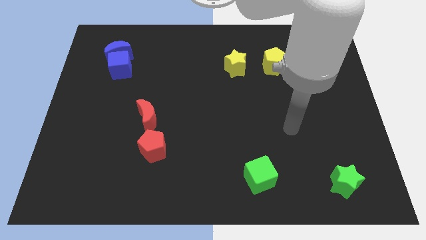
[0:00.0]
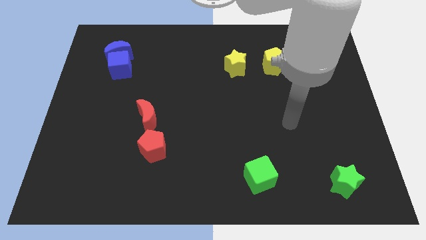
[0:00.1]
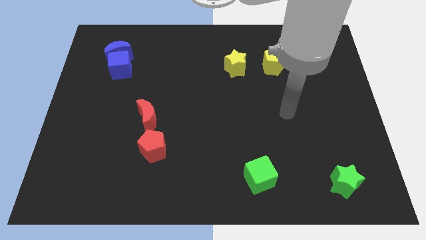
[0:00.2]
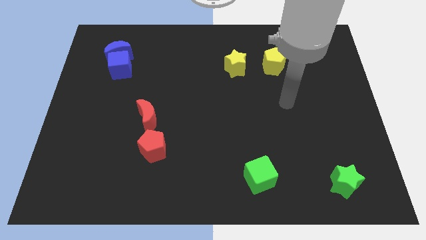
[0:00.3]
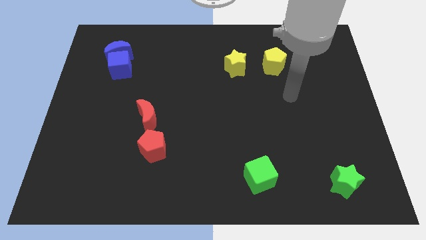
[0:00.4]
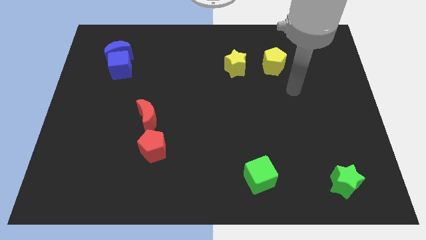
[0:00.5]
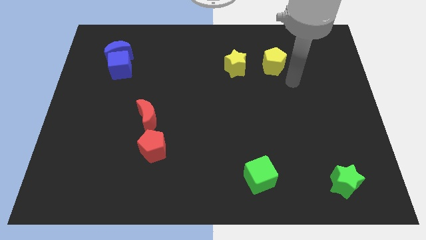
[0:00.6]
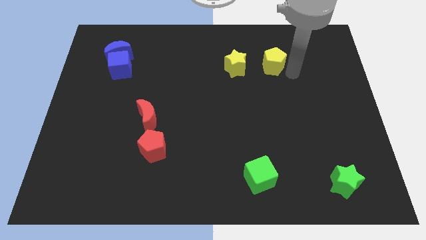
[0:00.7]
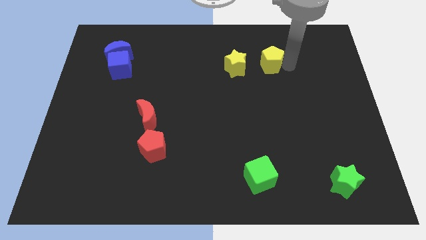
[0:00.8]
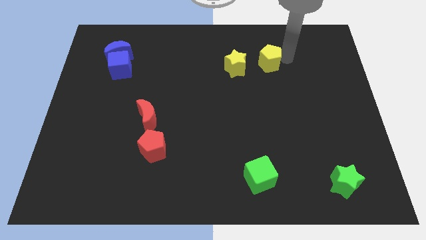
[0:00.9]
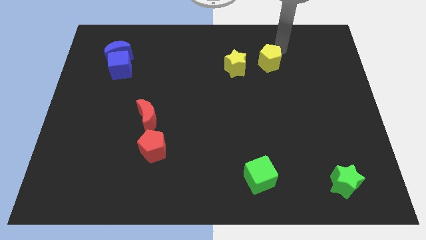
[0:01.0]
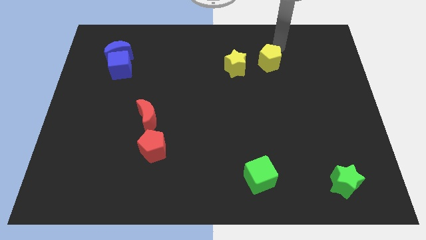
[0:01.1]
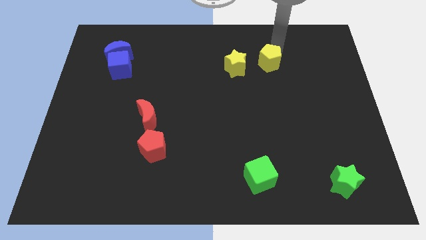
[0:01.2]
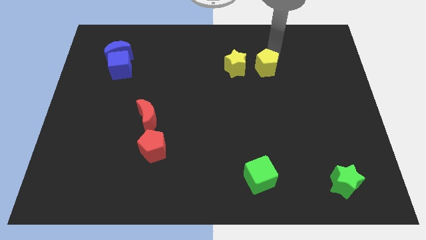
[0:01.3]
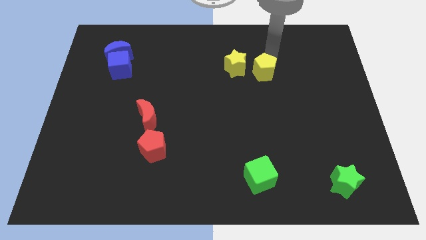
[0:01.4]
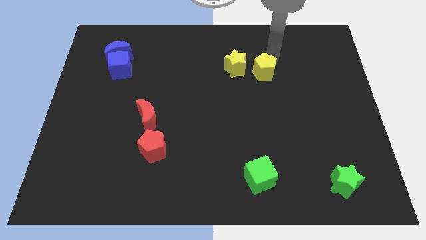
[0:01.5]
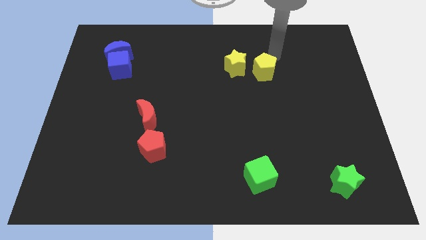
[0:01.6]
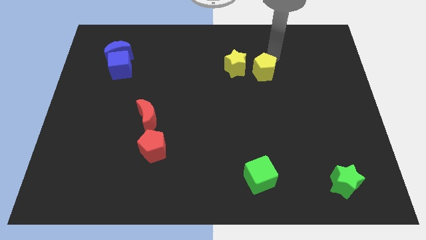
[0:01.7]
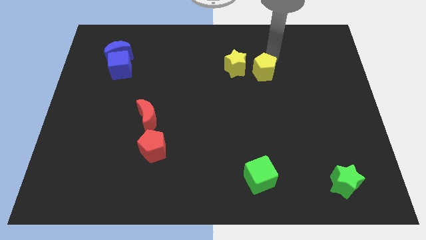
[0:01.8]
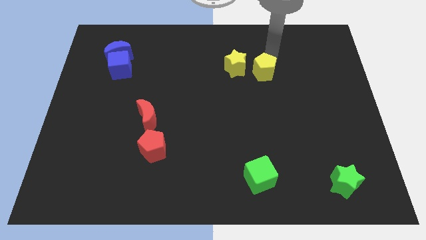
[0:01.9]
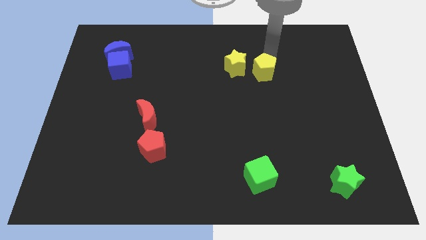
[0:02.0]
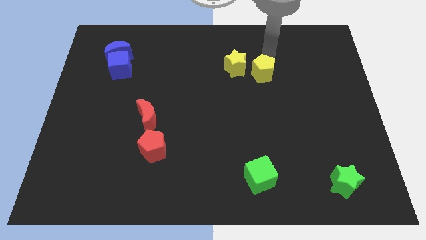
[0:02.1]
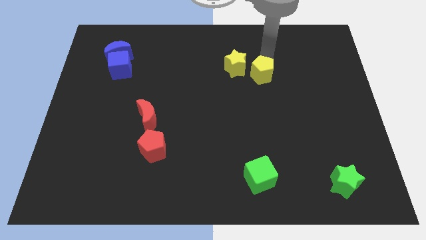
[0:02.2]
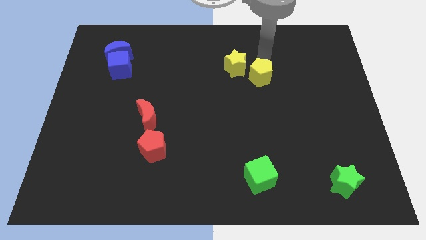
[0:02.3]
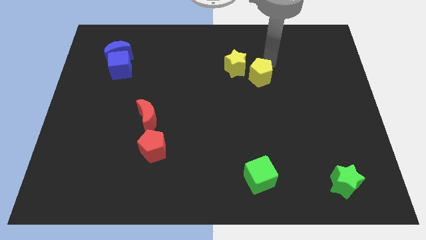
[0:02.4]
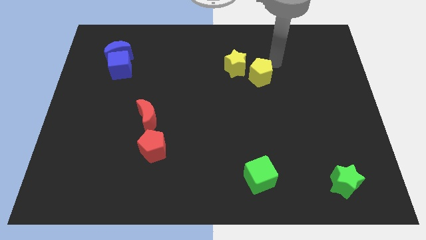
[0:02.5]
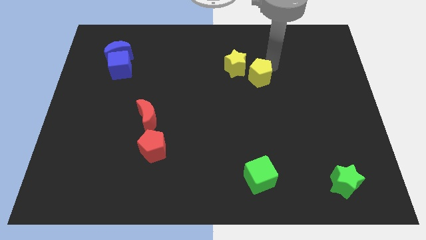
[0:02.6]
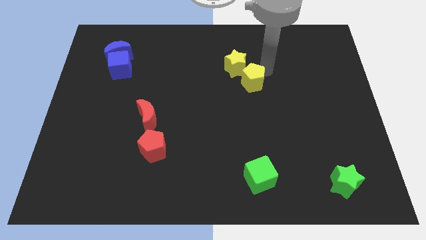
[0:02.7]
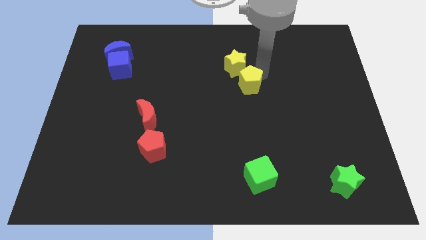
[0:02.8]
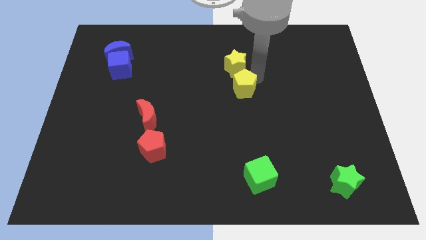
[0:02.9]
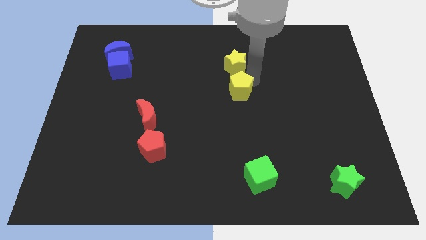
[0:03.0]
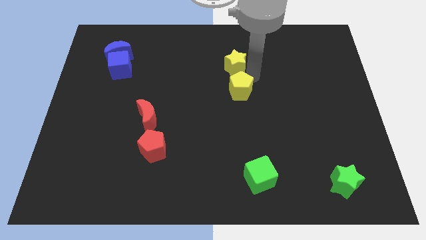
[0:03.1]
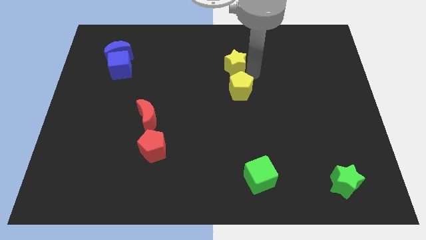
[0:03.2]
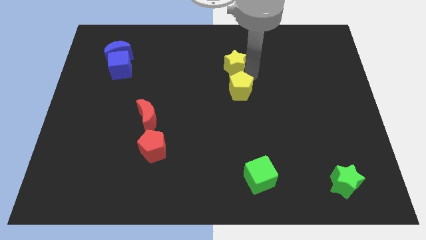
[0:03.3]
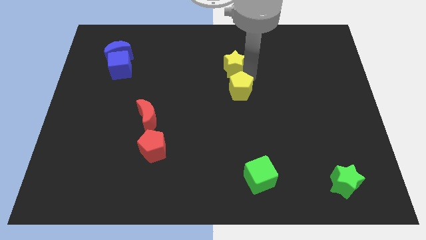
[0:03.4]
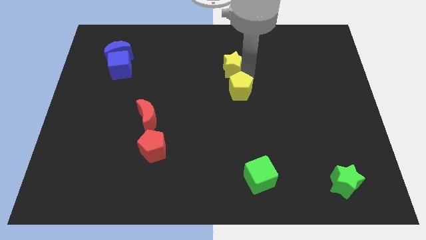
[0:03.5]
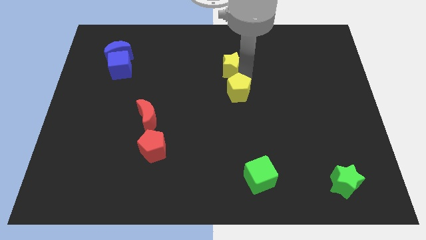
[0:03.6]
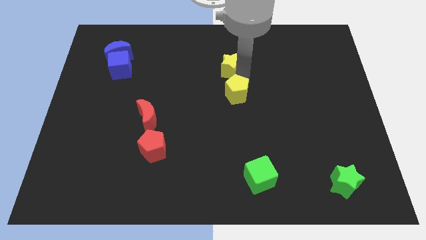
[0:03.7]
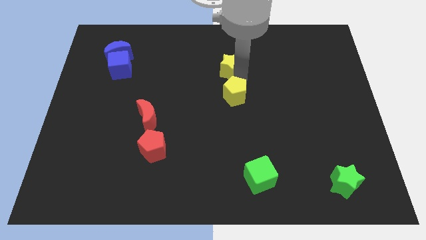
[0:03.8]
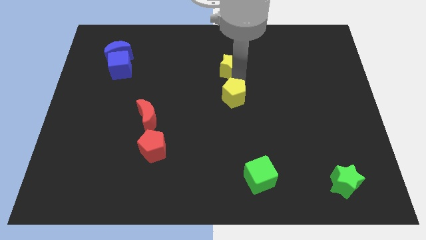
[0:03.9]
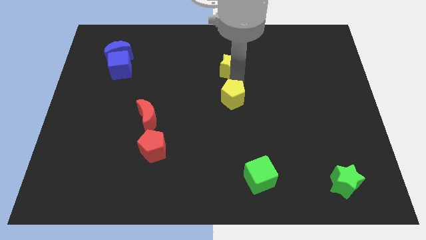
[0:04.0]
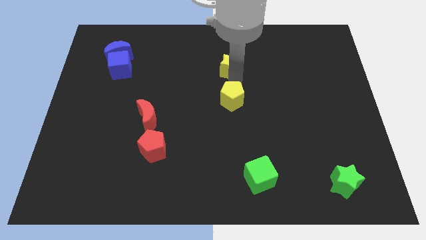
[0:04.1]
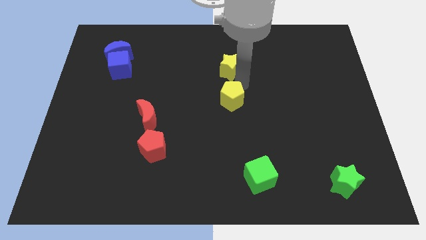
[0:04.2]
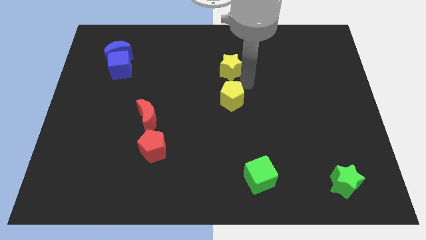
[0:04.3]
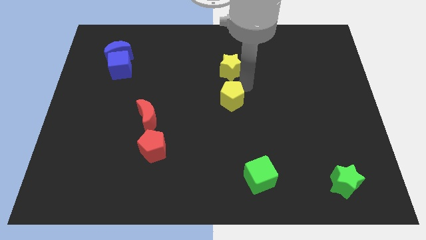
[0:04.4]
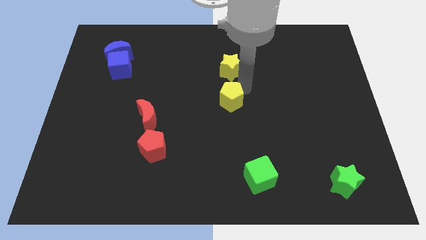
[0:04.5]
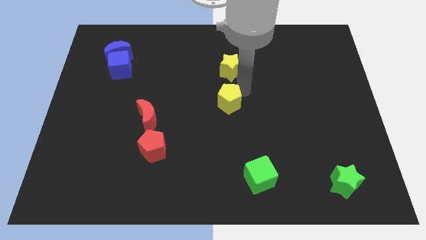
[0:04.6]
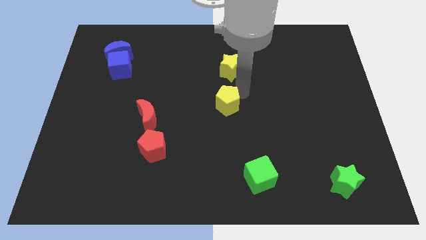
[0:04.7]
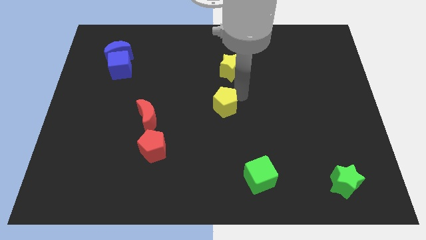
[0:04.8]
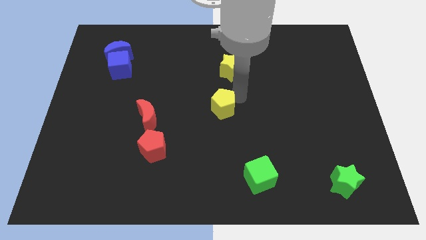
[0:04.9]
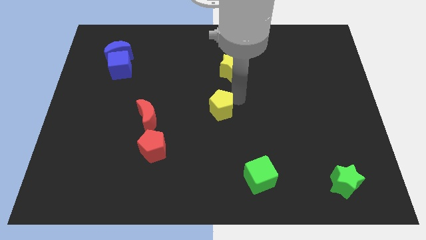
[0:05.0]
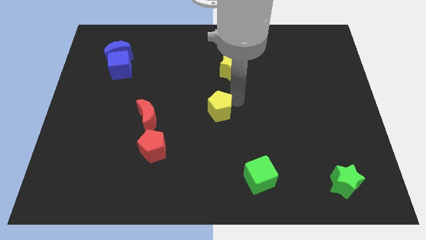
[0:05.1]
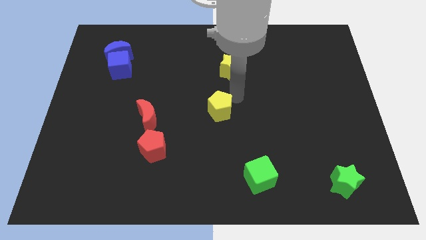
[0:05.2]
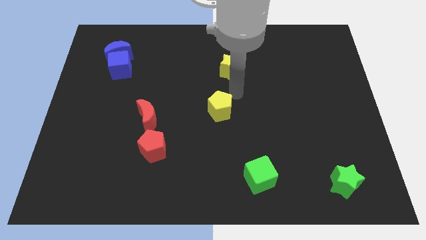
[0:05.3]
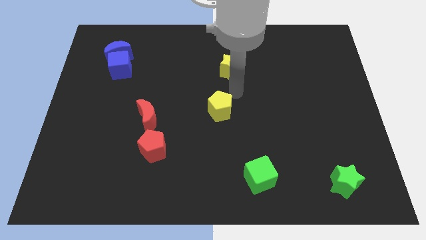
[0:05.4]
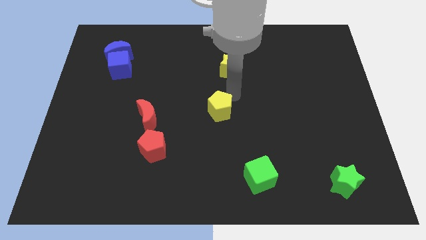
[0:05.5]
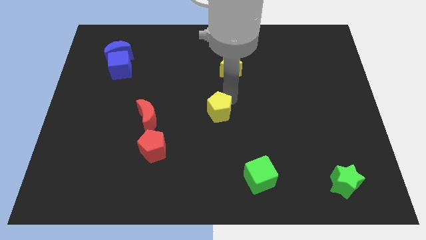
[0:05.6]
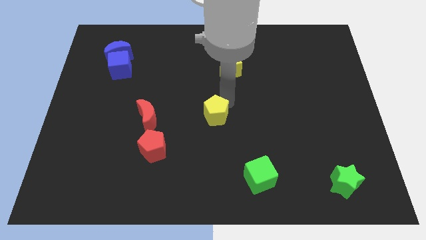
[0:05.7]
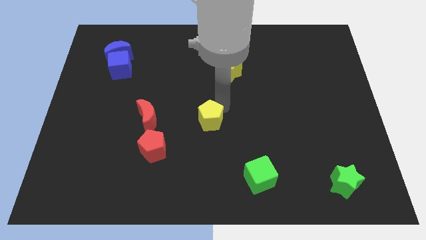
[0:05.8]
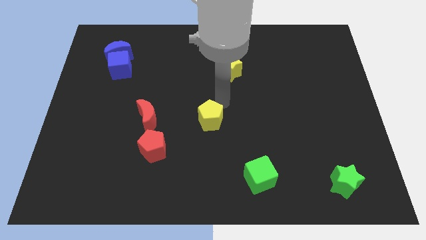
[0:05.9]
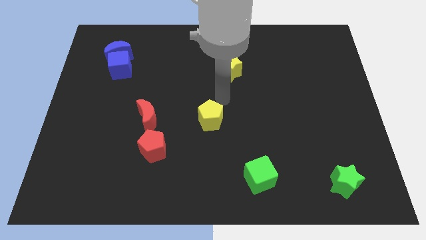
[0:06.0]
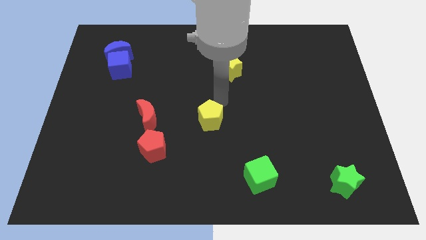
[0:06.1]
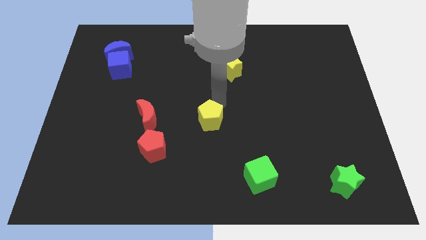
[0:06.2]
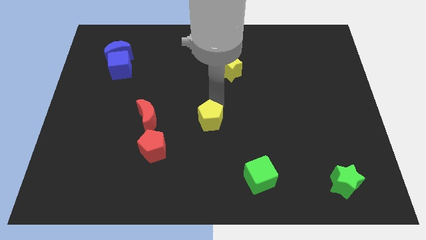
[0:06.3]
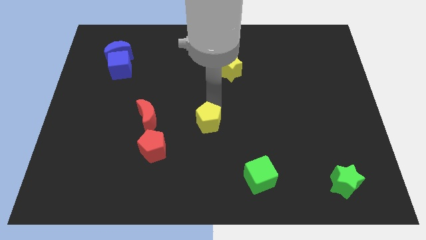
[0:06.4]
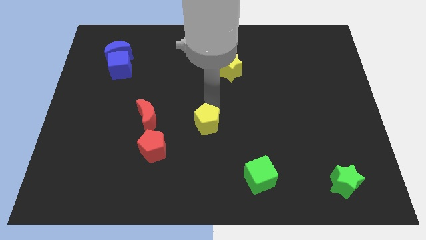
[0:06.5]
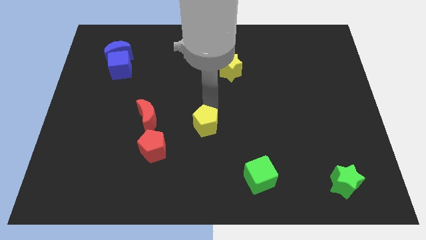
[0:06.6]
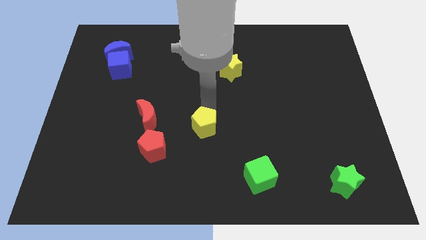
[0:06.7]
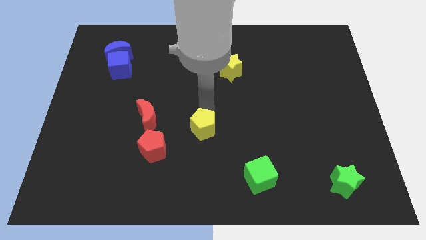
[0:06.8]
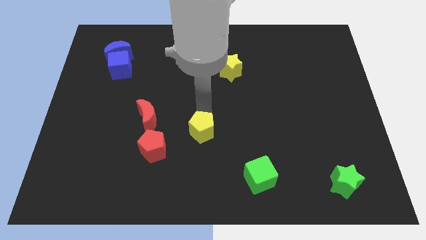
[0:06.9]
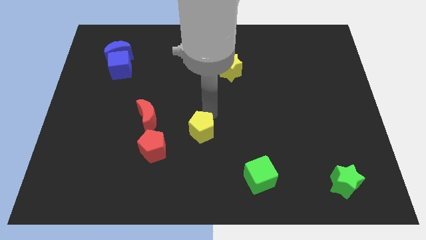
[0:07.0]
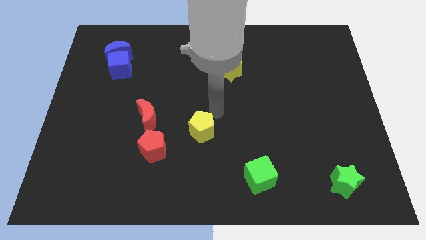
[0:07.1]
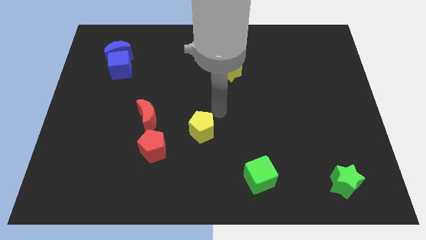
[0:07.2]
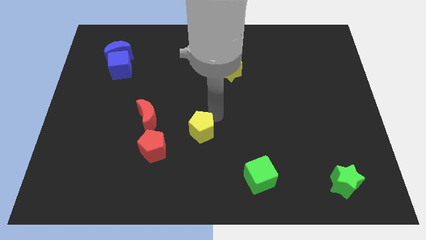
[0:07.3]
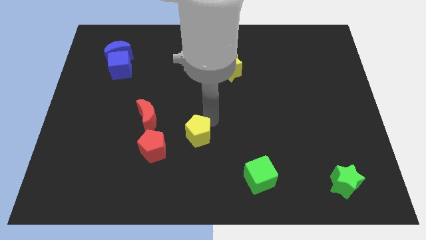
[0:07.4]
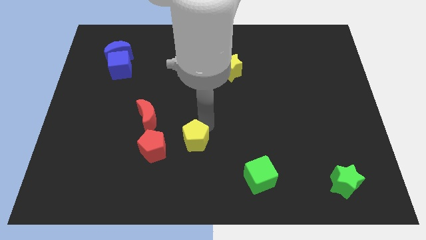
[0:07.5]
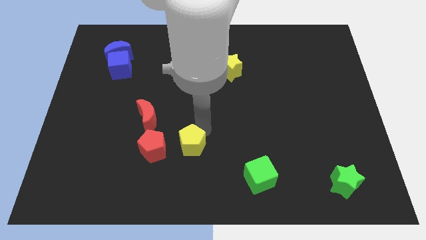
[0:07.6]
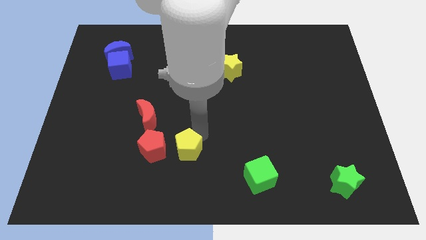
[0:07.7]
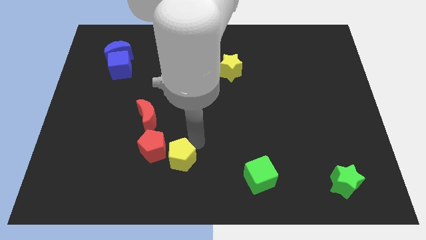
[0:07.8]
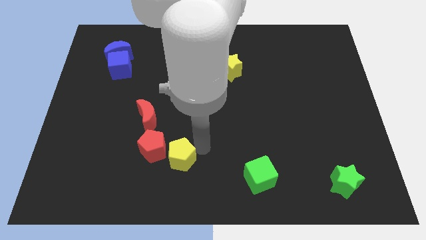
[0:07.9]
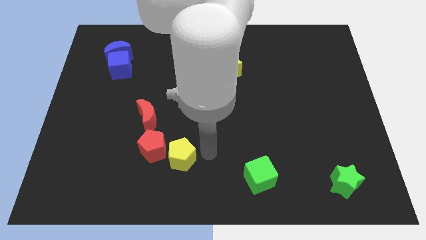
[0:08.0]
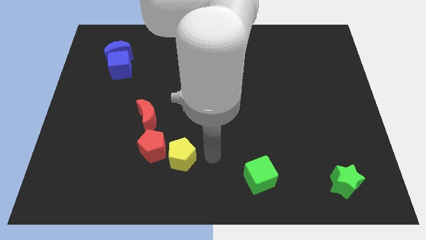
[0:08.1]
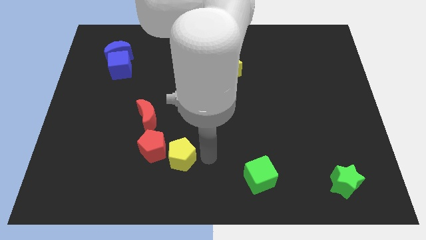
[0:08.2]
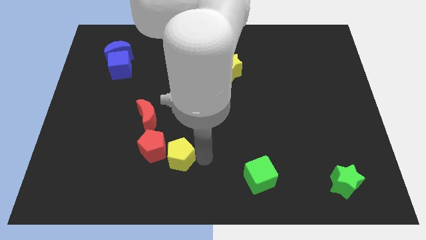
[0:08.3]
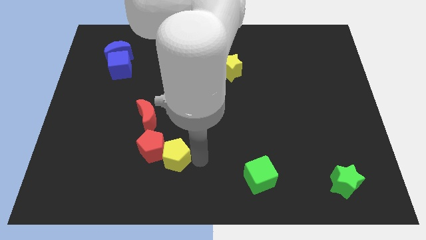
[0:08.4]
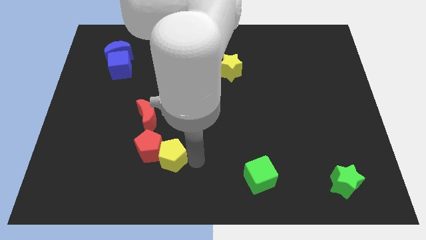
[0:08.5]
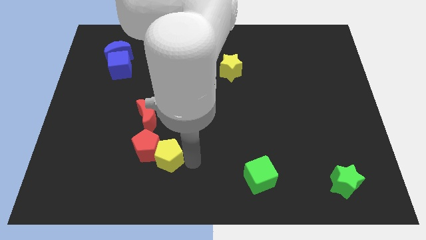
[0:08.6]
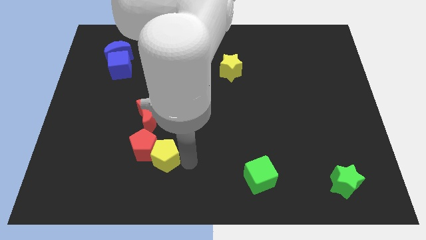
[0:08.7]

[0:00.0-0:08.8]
move the yellow pentagon to the bottom of the red moon
